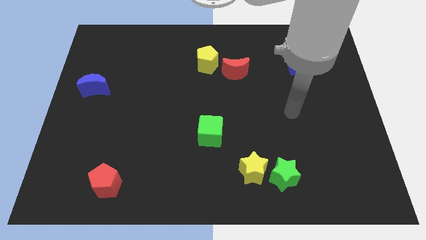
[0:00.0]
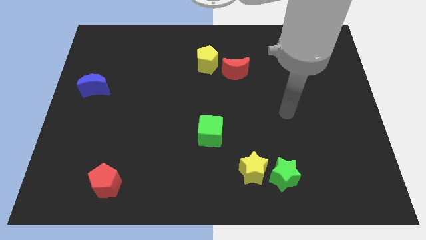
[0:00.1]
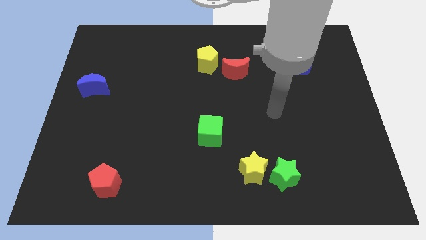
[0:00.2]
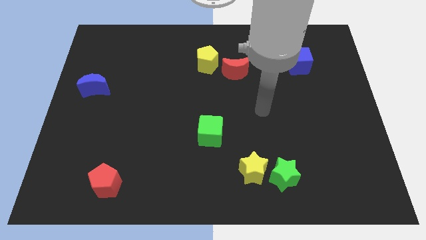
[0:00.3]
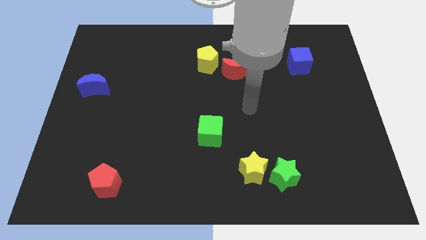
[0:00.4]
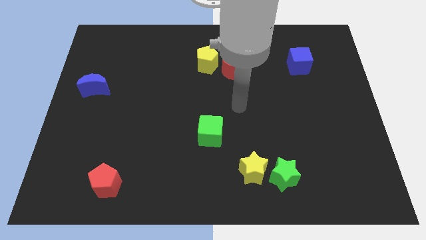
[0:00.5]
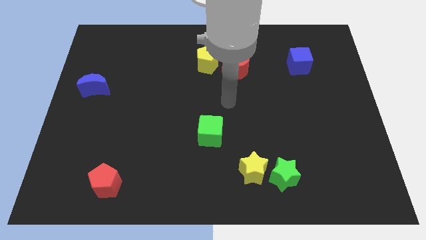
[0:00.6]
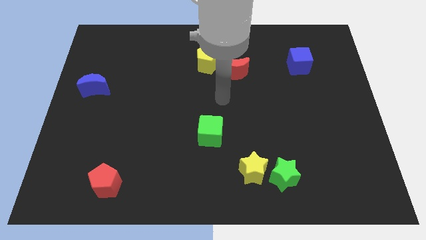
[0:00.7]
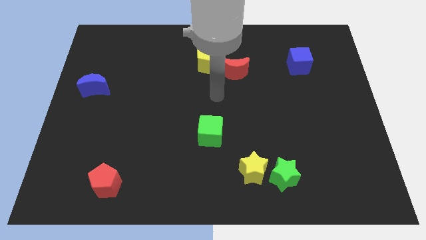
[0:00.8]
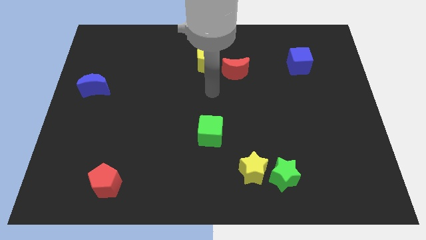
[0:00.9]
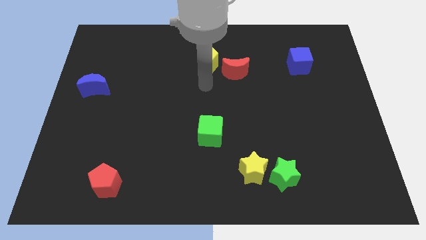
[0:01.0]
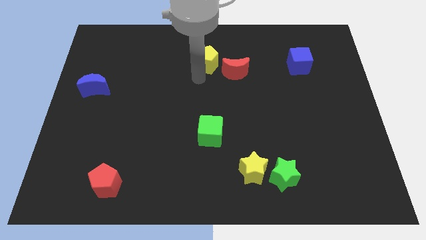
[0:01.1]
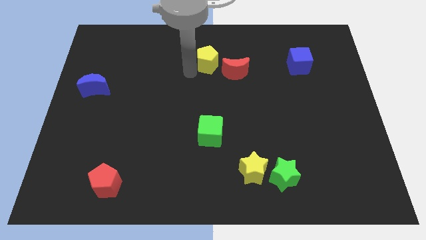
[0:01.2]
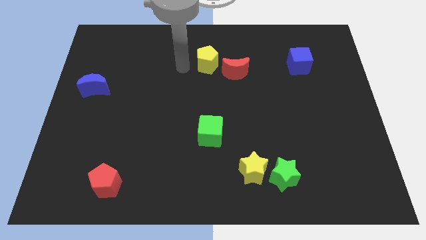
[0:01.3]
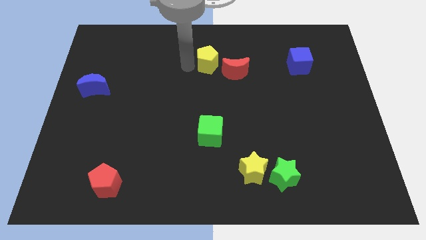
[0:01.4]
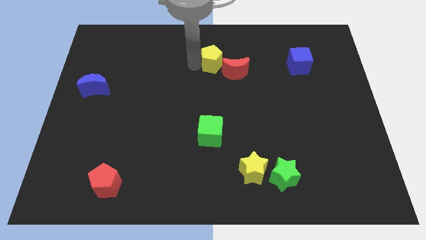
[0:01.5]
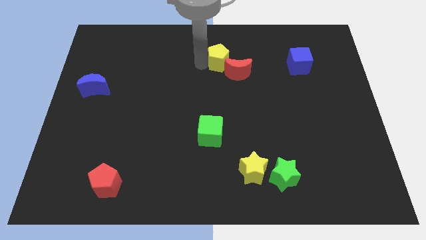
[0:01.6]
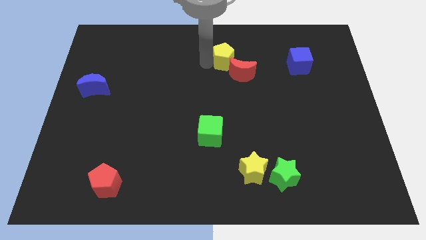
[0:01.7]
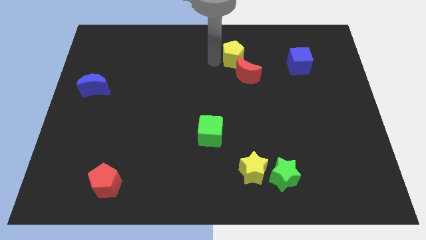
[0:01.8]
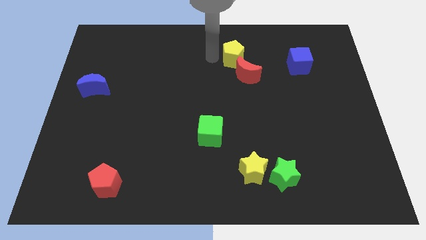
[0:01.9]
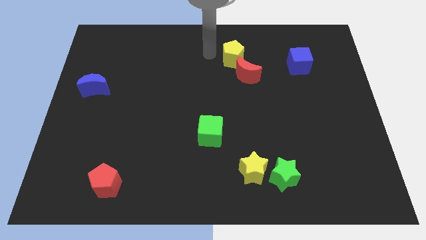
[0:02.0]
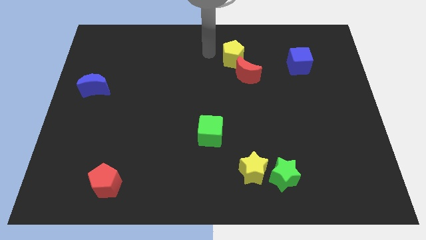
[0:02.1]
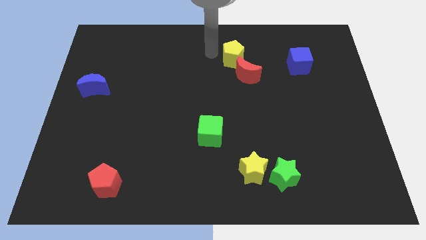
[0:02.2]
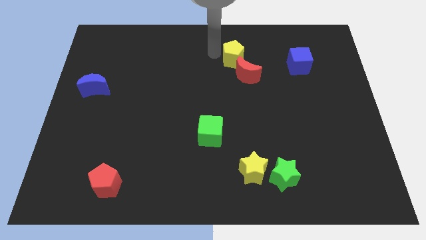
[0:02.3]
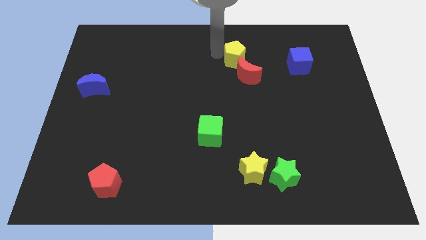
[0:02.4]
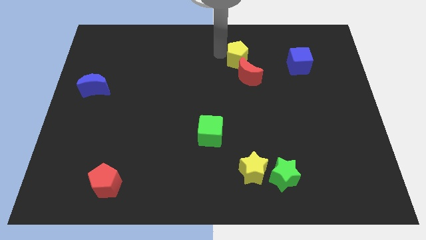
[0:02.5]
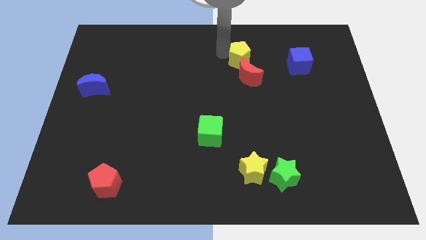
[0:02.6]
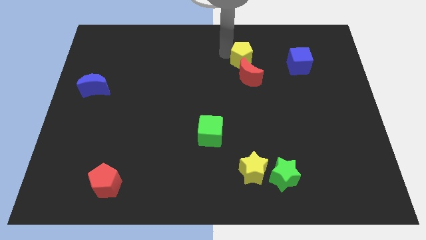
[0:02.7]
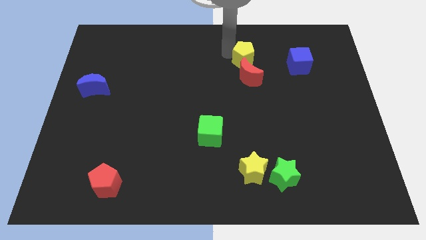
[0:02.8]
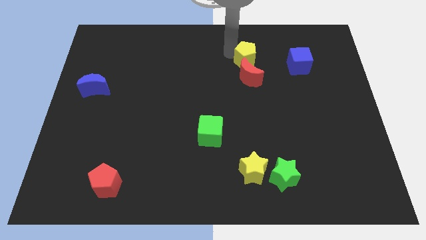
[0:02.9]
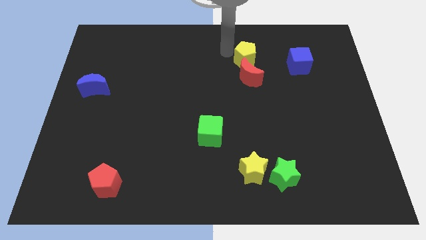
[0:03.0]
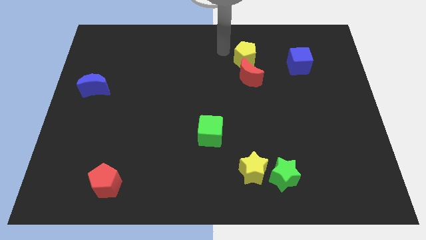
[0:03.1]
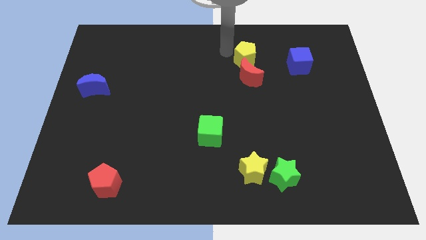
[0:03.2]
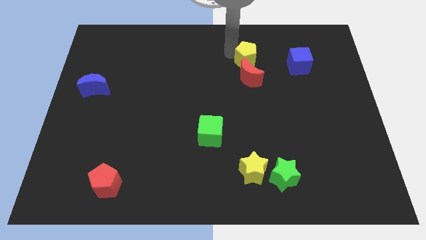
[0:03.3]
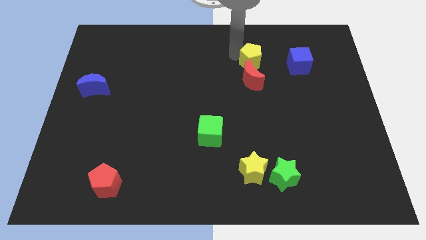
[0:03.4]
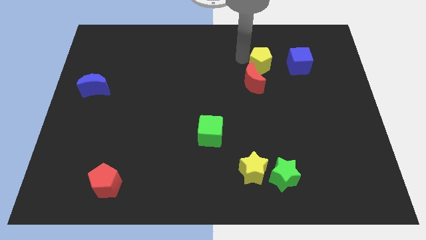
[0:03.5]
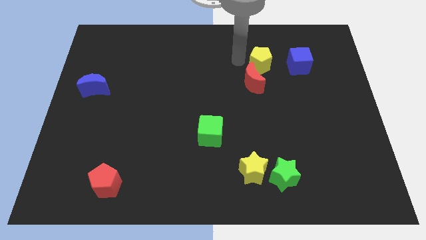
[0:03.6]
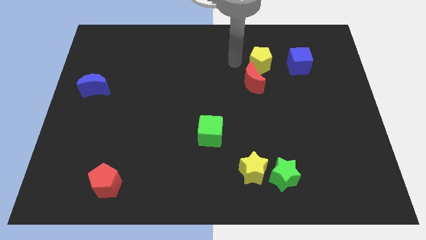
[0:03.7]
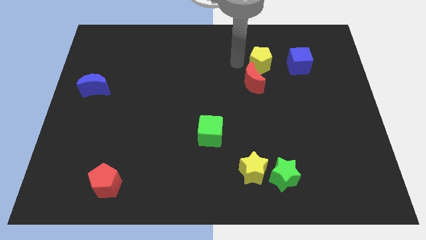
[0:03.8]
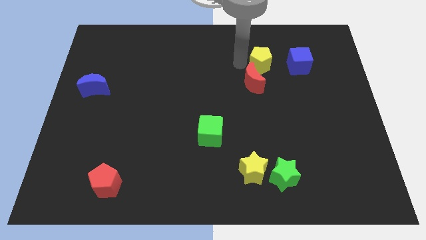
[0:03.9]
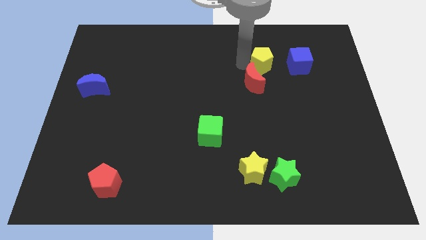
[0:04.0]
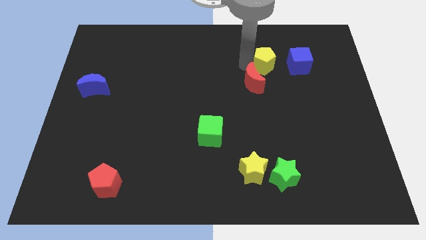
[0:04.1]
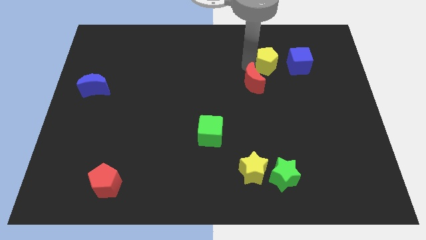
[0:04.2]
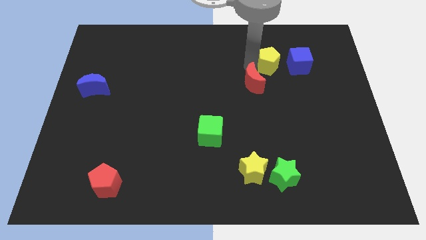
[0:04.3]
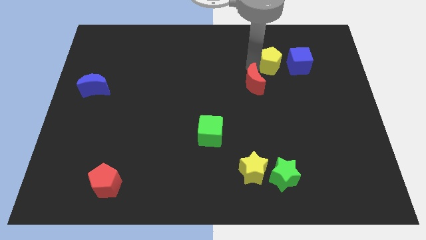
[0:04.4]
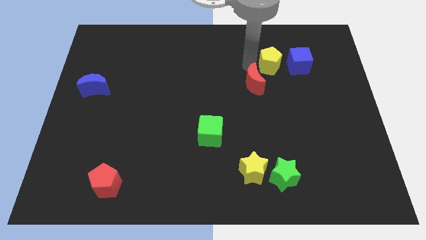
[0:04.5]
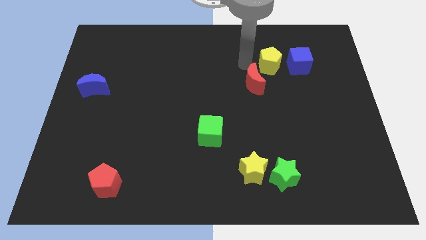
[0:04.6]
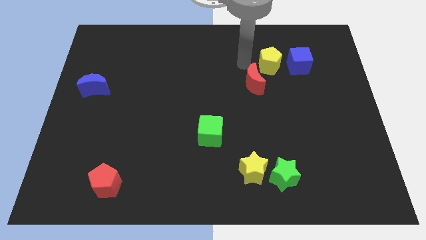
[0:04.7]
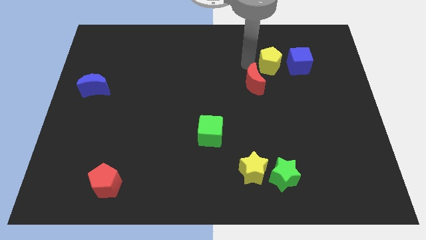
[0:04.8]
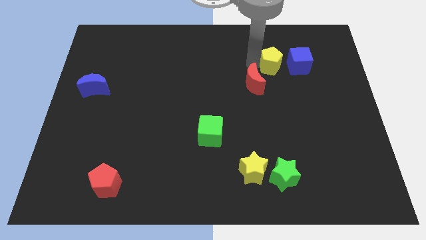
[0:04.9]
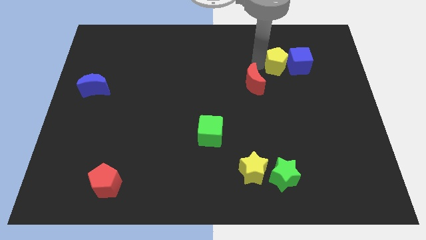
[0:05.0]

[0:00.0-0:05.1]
put the yellow pentagon close to the blue cube

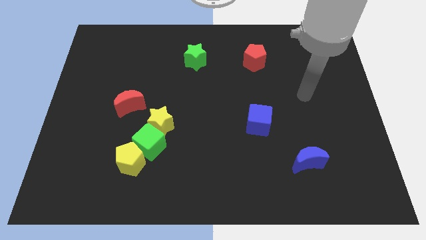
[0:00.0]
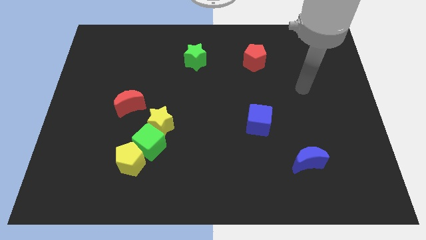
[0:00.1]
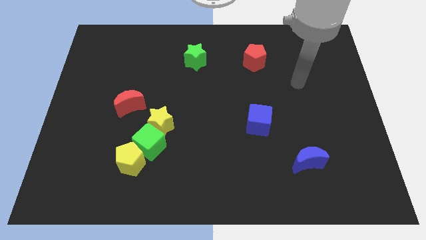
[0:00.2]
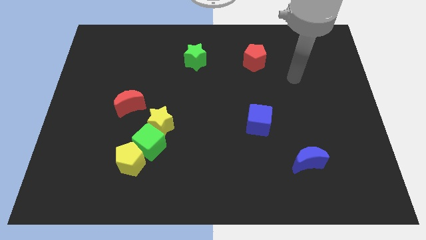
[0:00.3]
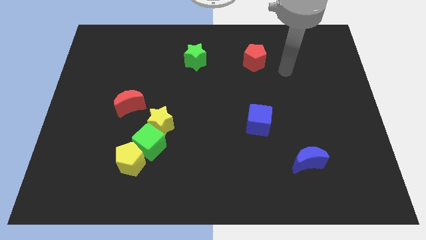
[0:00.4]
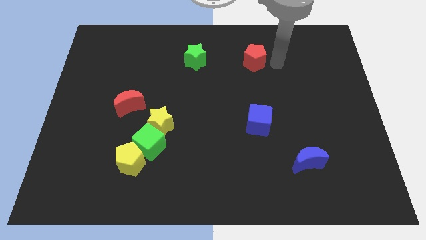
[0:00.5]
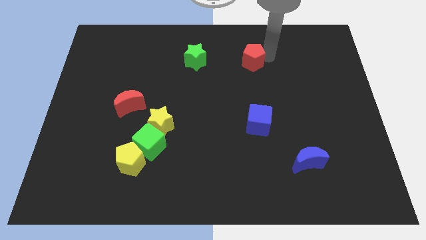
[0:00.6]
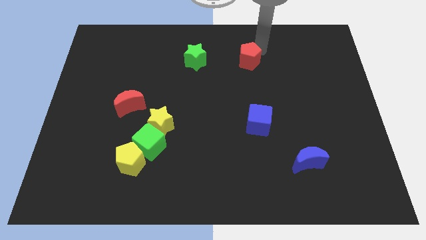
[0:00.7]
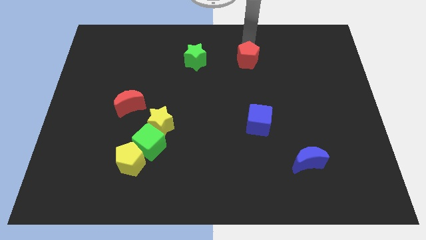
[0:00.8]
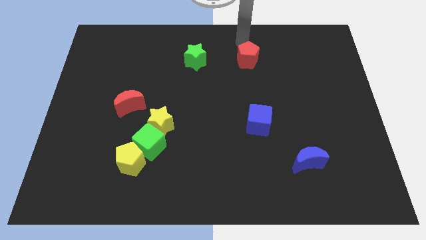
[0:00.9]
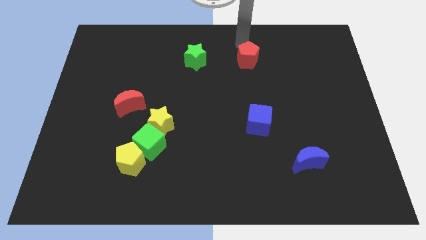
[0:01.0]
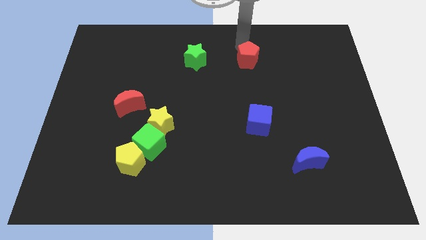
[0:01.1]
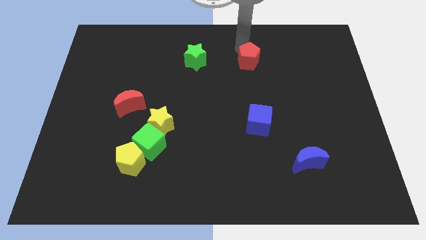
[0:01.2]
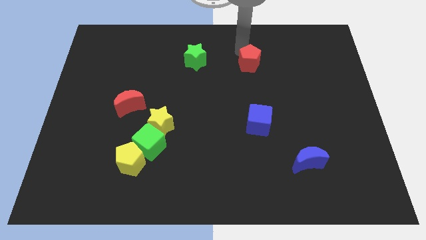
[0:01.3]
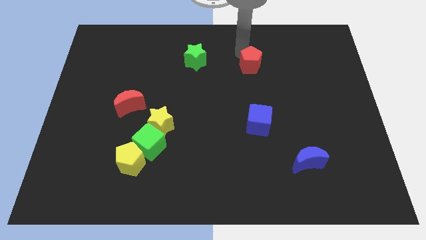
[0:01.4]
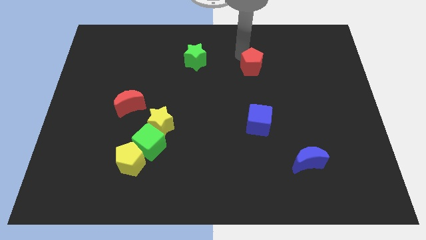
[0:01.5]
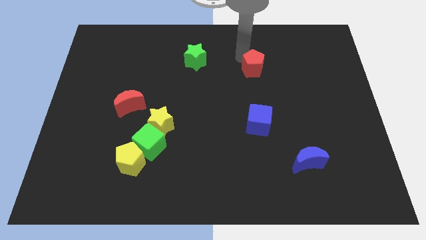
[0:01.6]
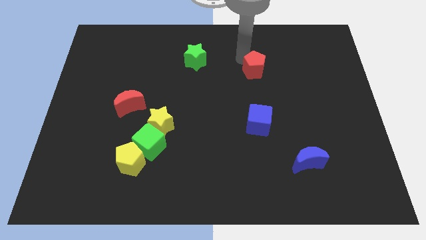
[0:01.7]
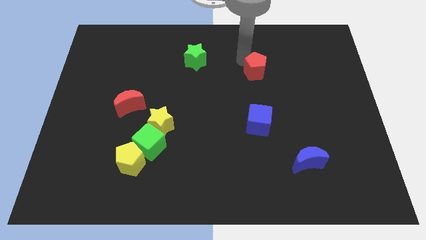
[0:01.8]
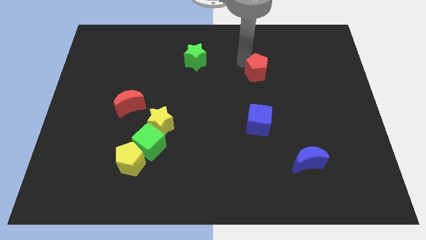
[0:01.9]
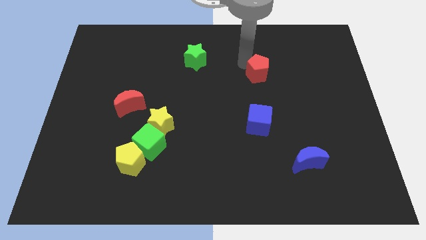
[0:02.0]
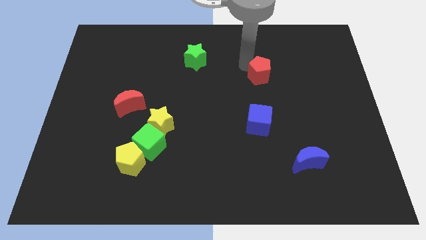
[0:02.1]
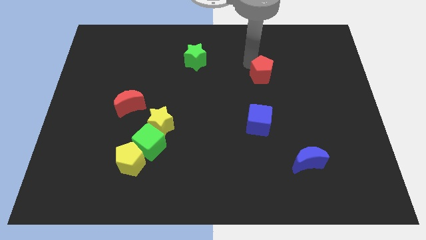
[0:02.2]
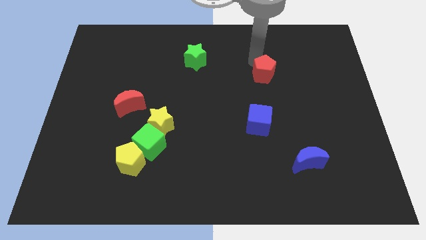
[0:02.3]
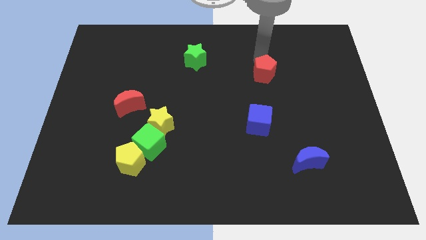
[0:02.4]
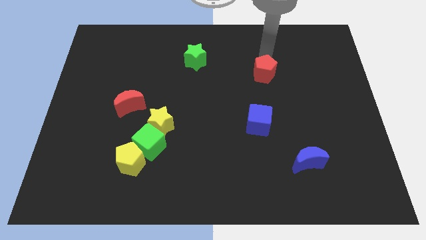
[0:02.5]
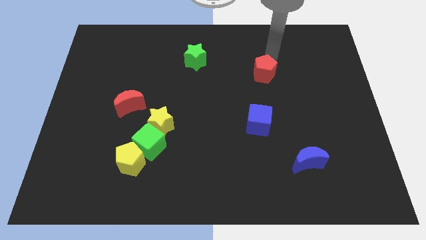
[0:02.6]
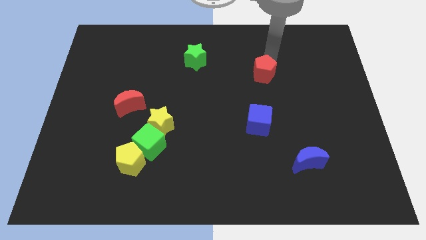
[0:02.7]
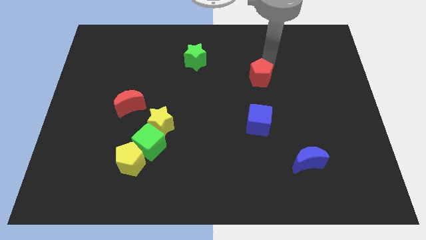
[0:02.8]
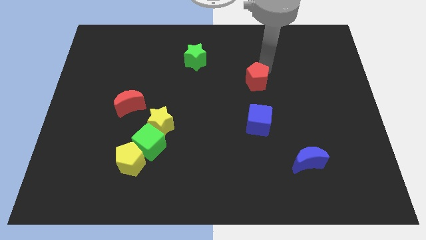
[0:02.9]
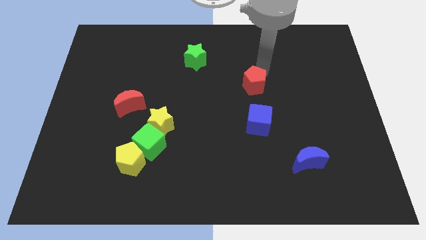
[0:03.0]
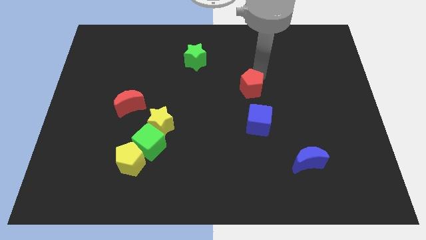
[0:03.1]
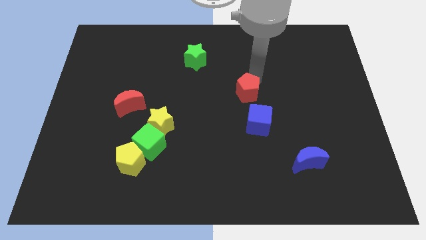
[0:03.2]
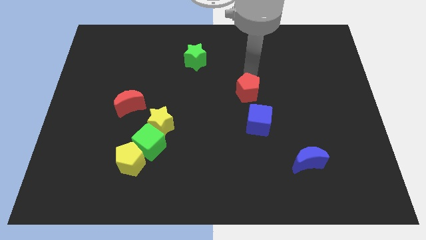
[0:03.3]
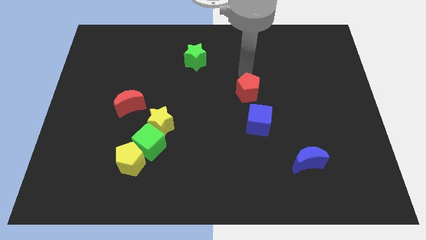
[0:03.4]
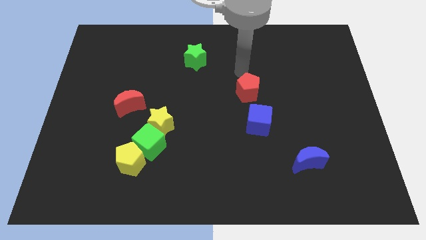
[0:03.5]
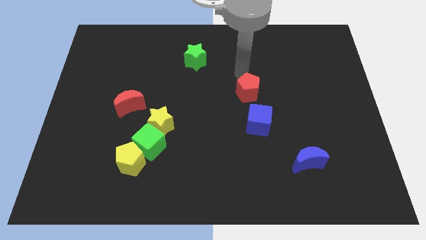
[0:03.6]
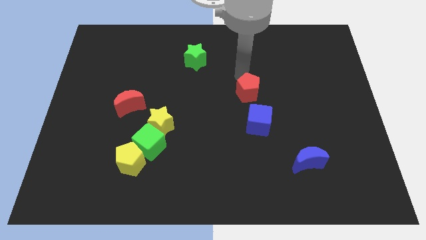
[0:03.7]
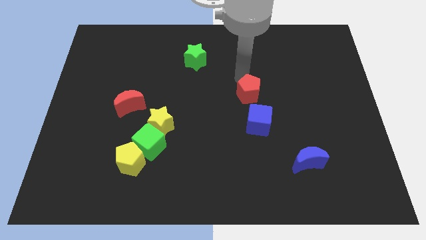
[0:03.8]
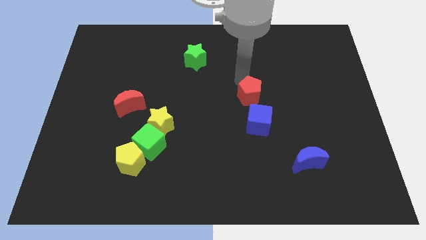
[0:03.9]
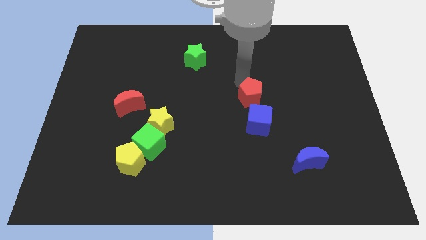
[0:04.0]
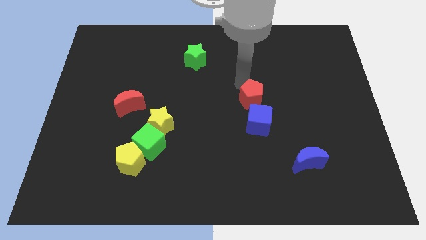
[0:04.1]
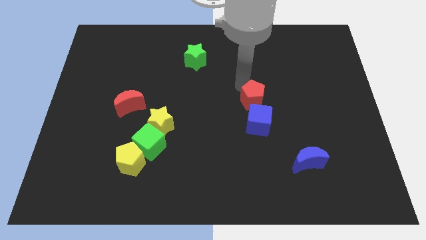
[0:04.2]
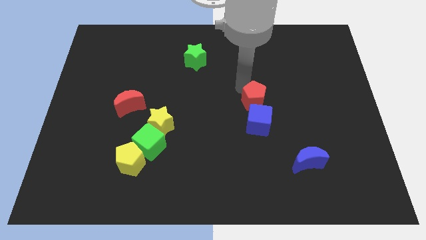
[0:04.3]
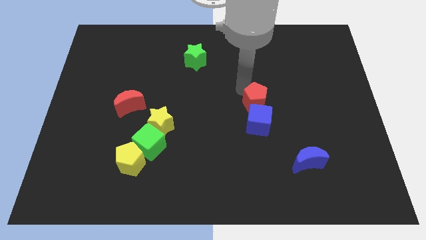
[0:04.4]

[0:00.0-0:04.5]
move the red pentagon next to the blue cube
